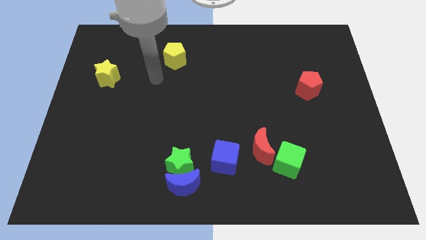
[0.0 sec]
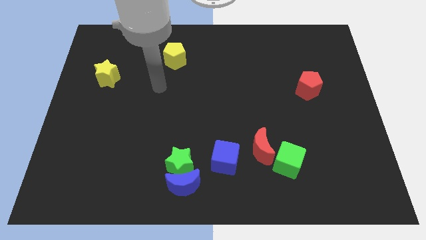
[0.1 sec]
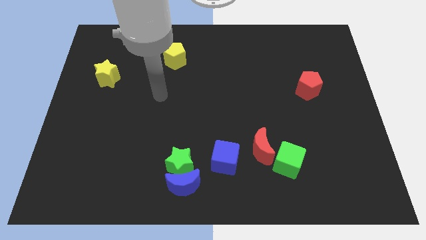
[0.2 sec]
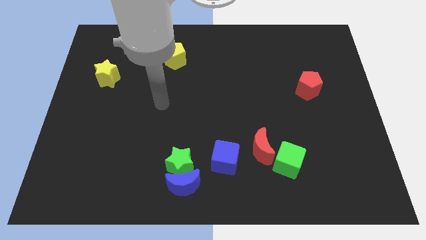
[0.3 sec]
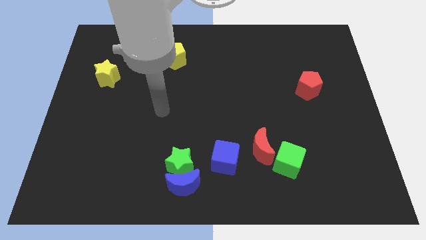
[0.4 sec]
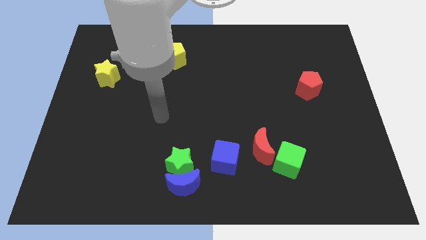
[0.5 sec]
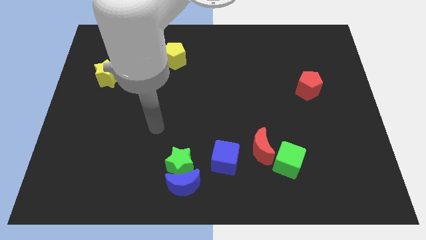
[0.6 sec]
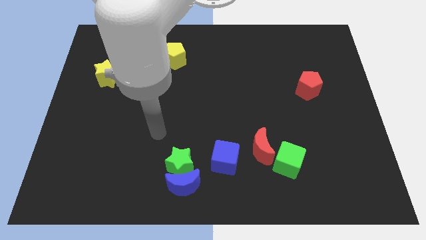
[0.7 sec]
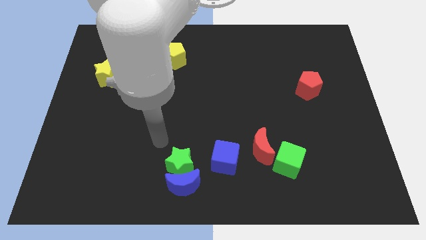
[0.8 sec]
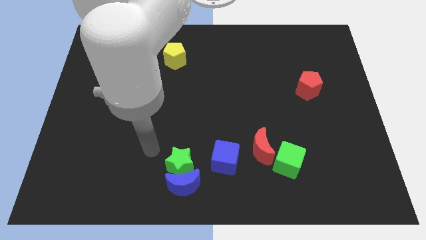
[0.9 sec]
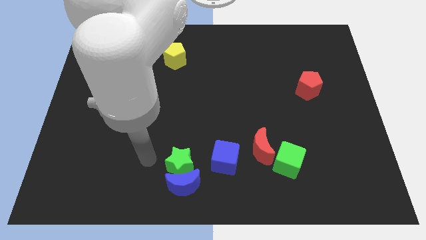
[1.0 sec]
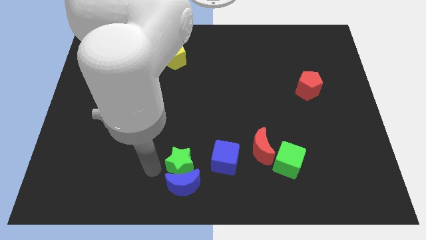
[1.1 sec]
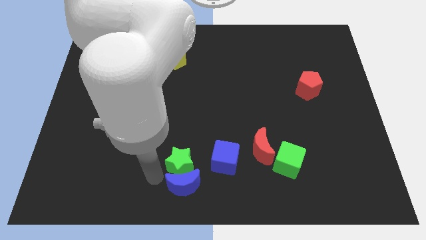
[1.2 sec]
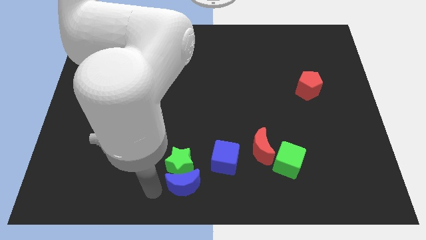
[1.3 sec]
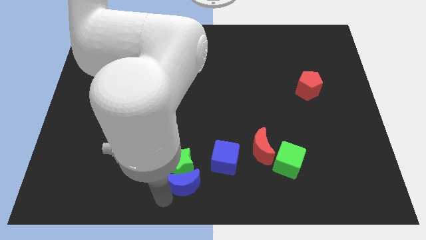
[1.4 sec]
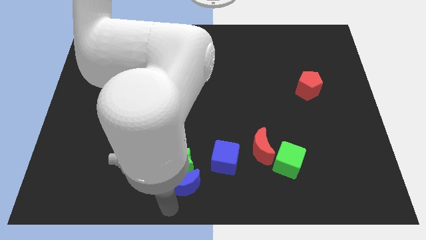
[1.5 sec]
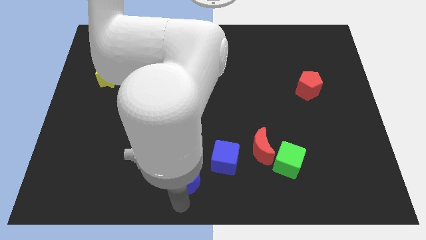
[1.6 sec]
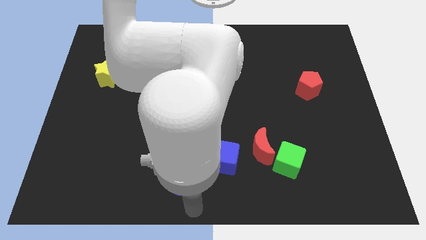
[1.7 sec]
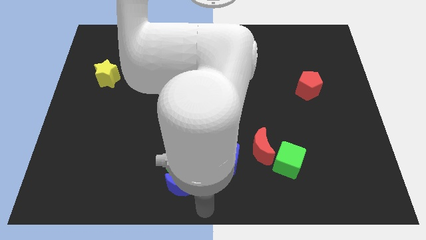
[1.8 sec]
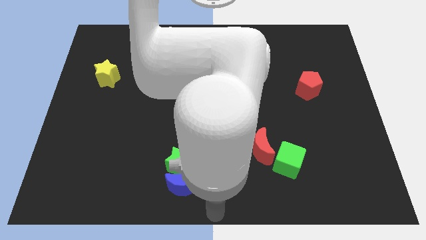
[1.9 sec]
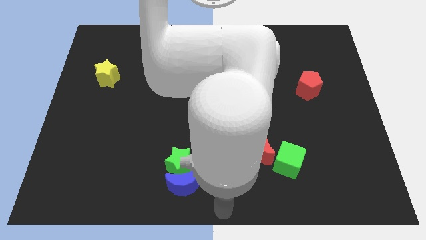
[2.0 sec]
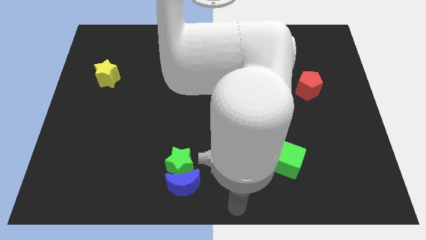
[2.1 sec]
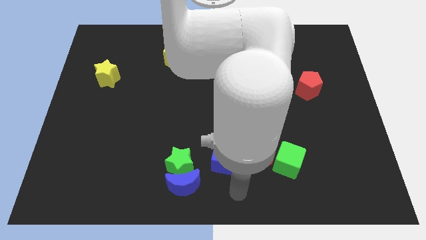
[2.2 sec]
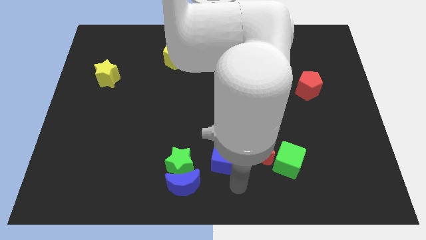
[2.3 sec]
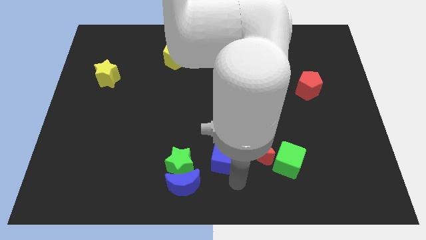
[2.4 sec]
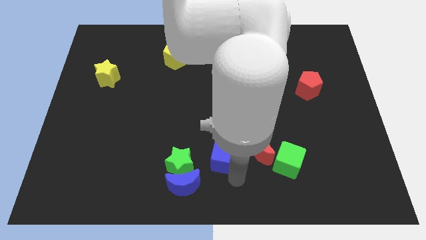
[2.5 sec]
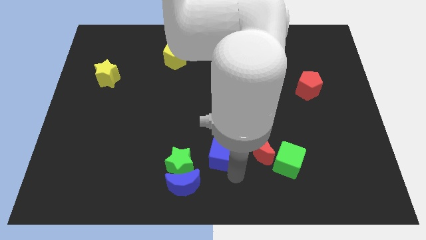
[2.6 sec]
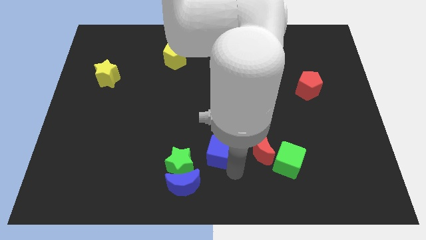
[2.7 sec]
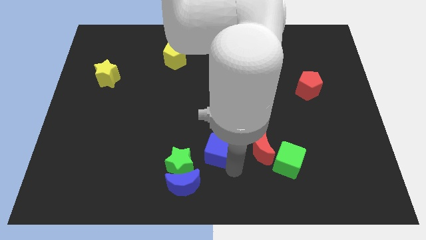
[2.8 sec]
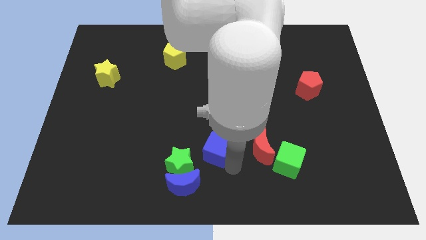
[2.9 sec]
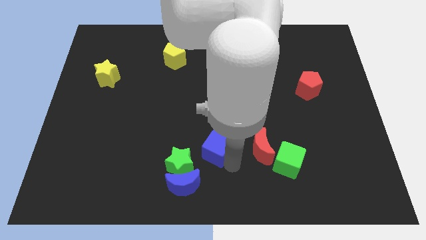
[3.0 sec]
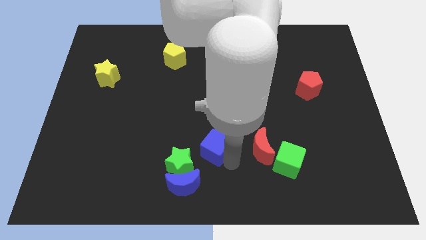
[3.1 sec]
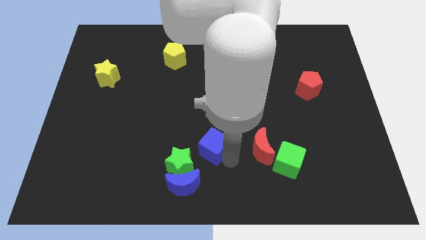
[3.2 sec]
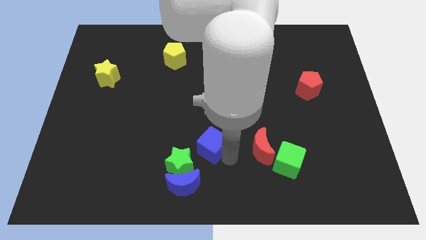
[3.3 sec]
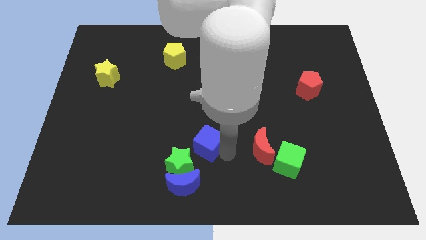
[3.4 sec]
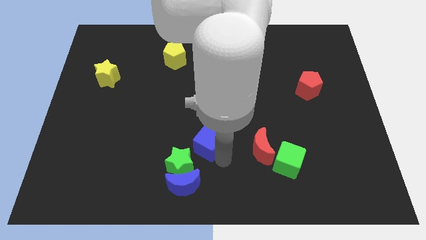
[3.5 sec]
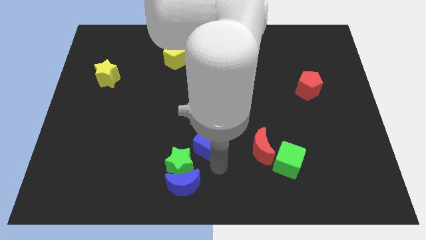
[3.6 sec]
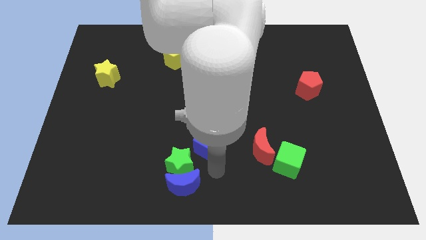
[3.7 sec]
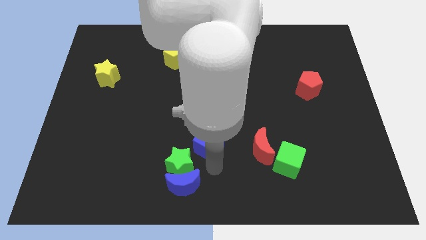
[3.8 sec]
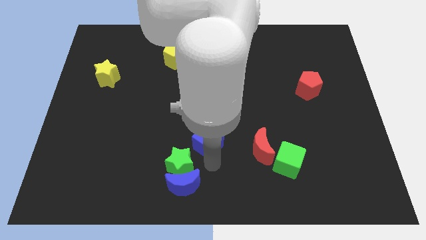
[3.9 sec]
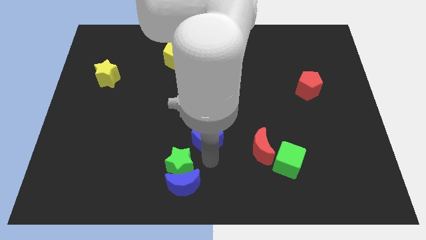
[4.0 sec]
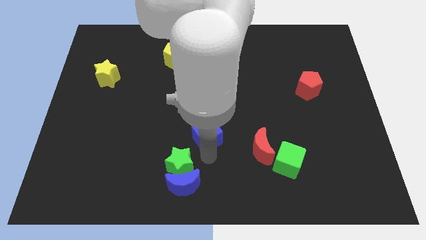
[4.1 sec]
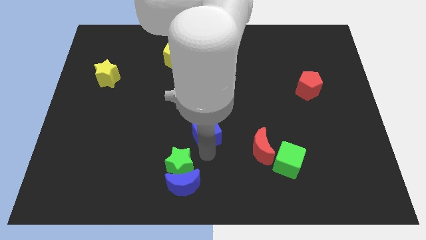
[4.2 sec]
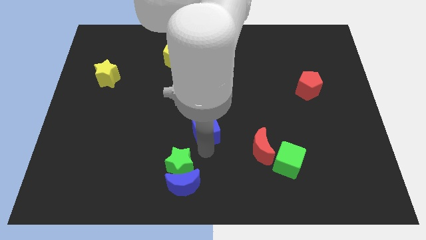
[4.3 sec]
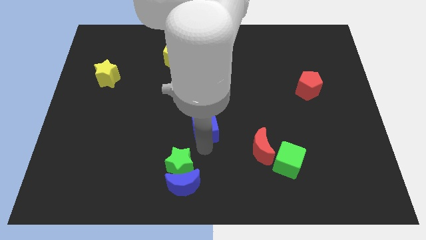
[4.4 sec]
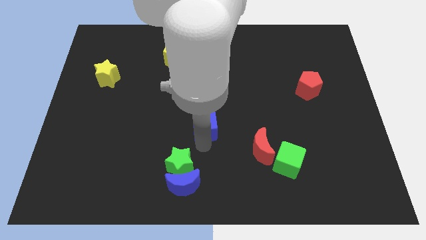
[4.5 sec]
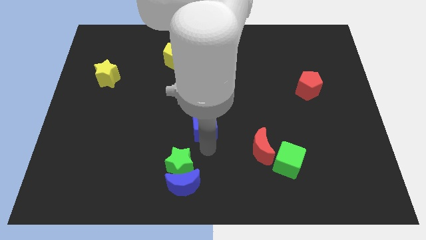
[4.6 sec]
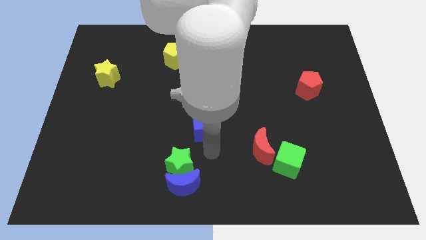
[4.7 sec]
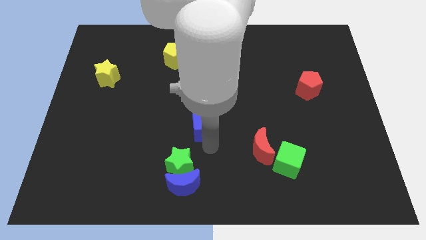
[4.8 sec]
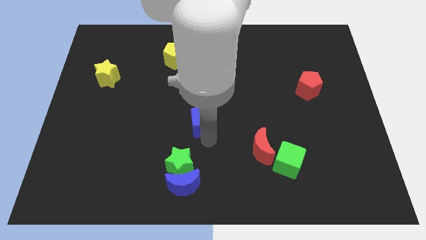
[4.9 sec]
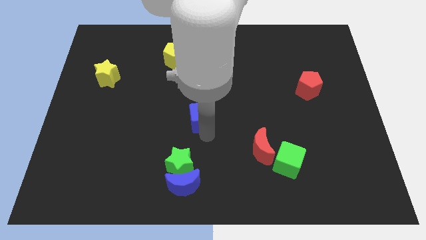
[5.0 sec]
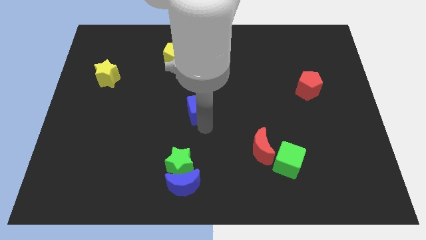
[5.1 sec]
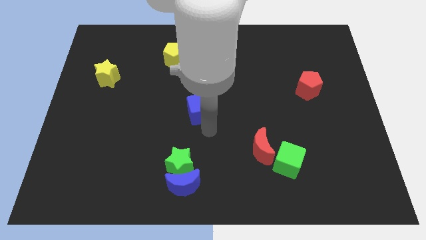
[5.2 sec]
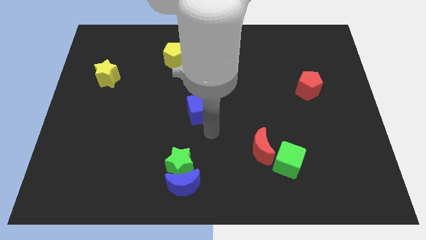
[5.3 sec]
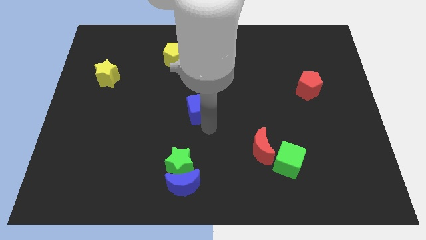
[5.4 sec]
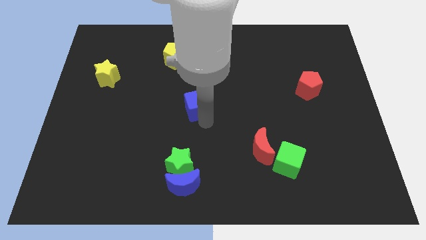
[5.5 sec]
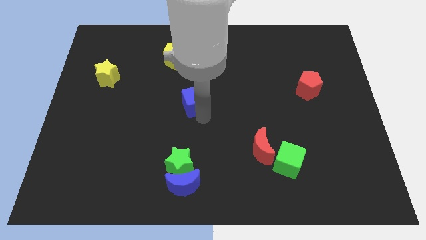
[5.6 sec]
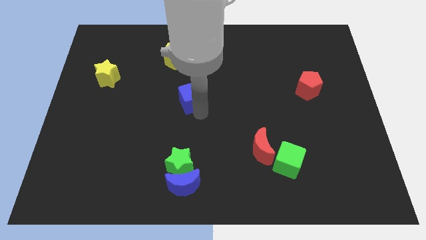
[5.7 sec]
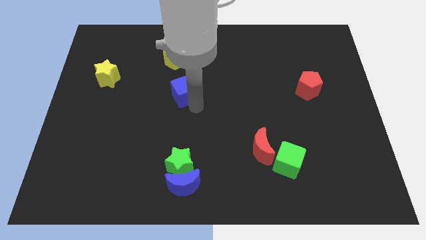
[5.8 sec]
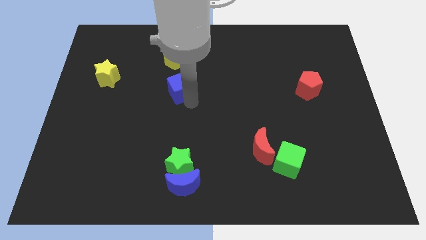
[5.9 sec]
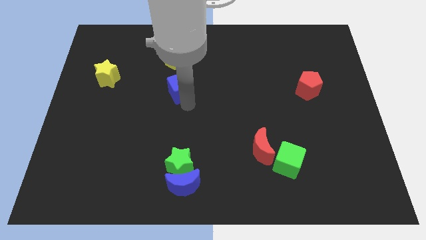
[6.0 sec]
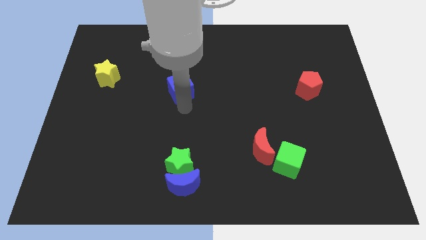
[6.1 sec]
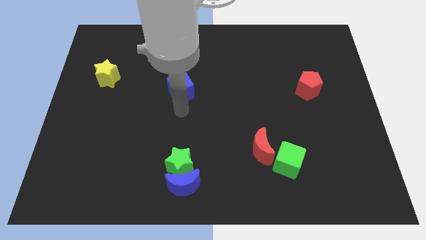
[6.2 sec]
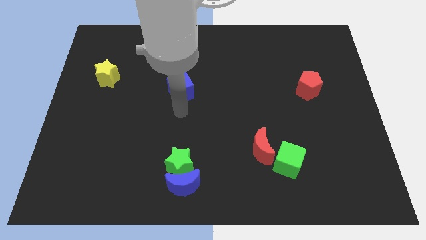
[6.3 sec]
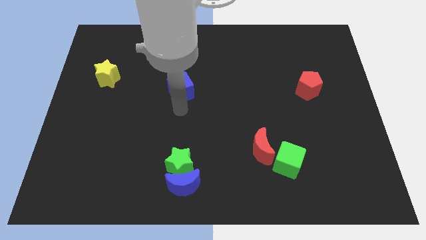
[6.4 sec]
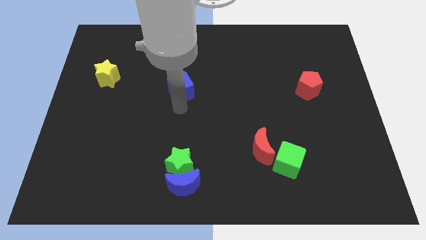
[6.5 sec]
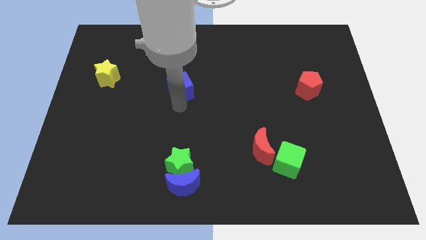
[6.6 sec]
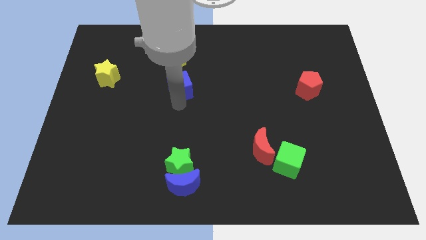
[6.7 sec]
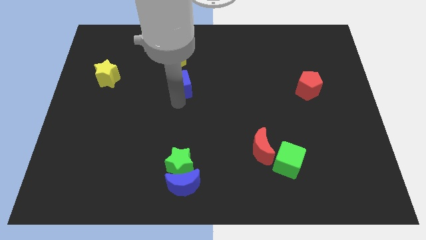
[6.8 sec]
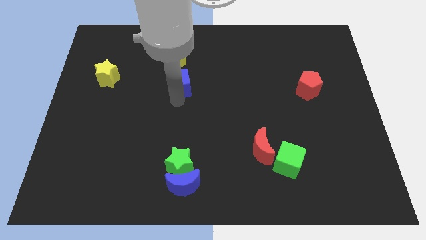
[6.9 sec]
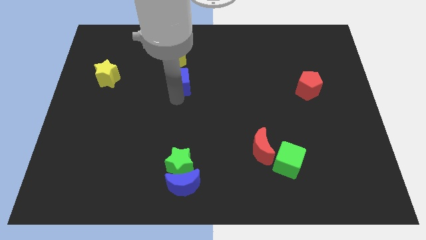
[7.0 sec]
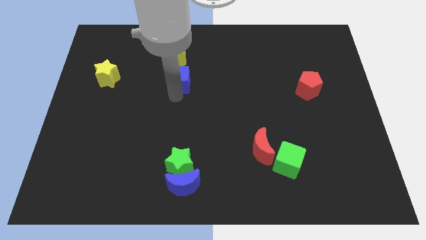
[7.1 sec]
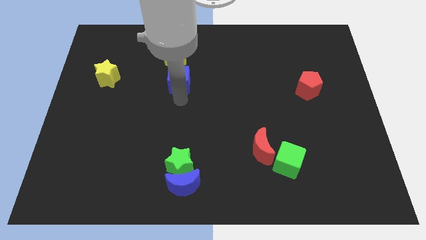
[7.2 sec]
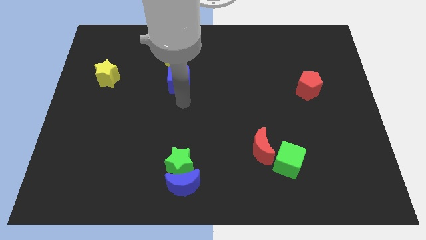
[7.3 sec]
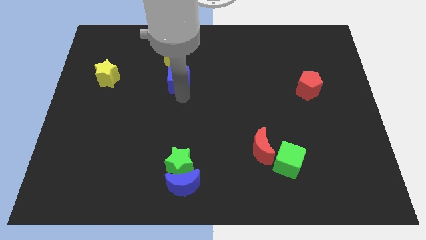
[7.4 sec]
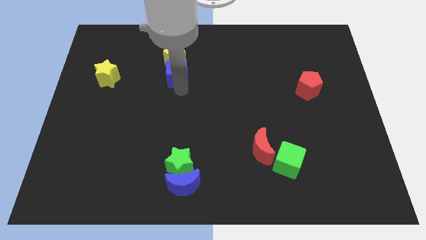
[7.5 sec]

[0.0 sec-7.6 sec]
put the blue cube next to the yellow pentagon
